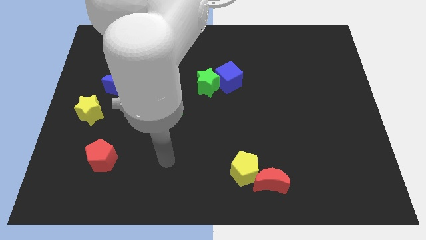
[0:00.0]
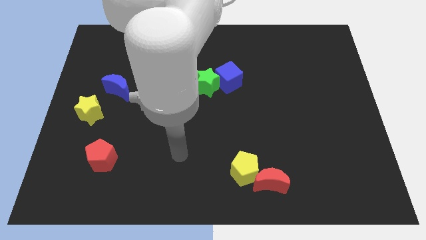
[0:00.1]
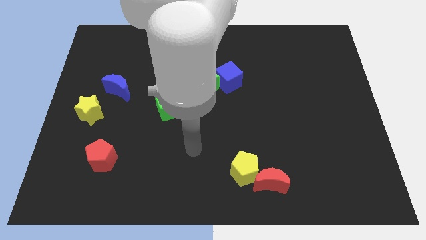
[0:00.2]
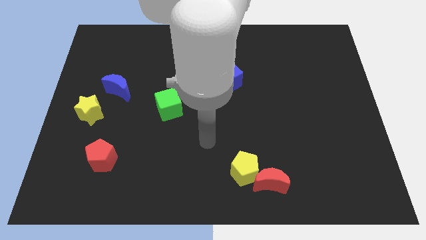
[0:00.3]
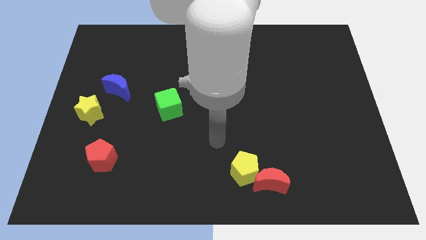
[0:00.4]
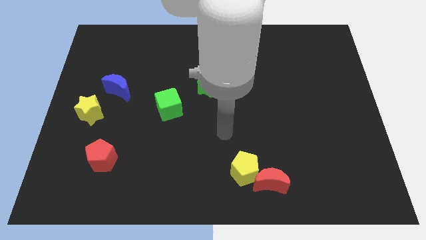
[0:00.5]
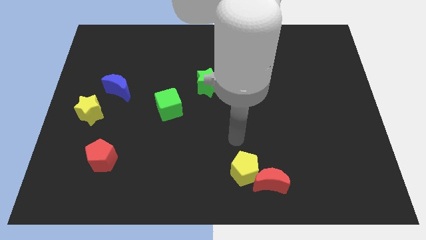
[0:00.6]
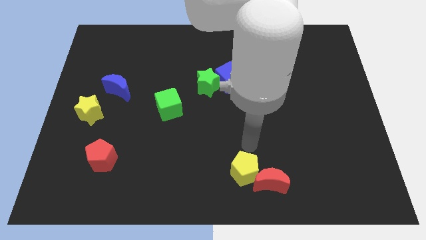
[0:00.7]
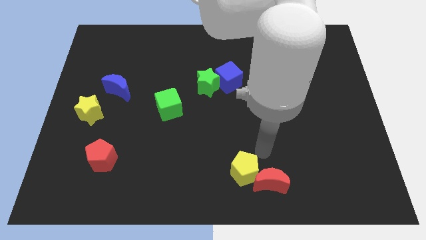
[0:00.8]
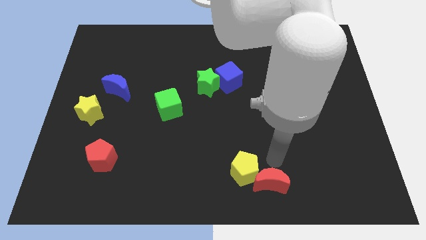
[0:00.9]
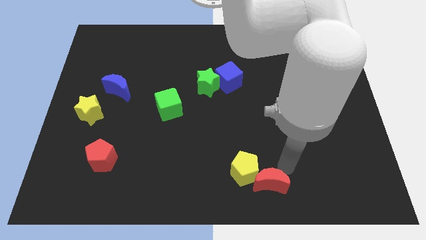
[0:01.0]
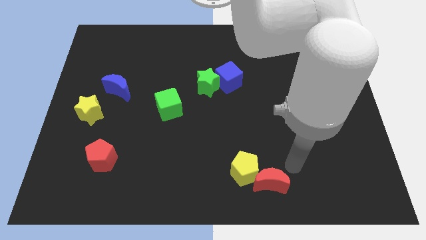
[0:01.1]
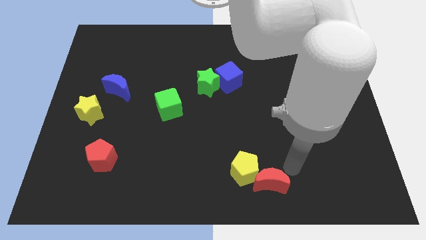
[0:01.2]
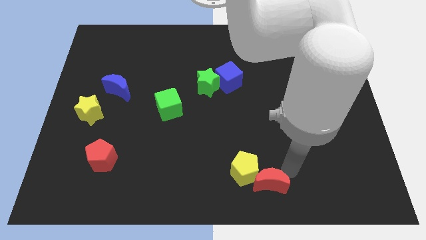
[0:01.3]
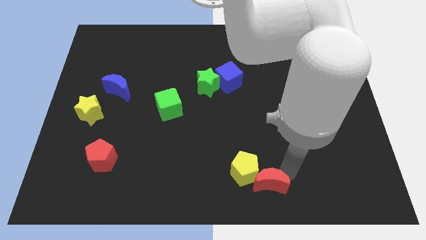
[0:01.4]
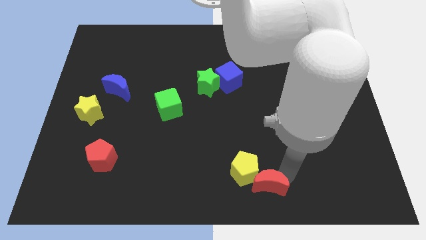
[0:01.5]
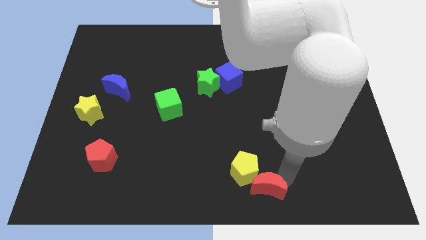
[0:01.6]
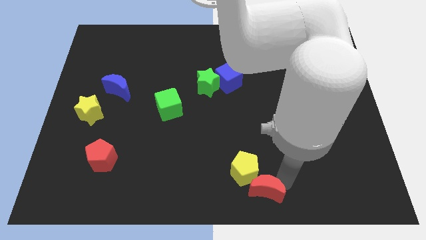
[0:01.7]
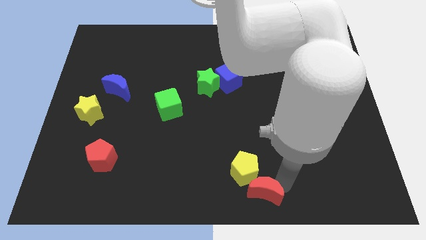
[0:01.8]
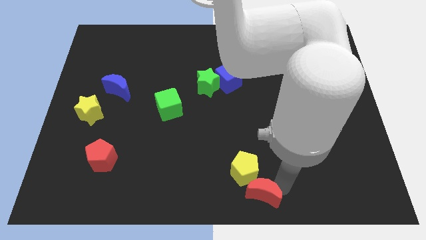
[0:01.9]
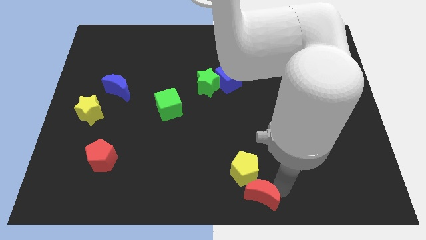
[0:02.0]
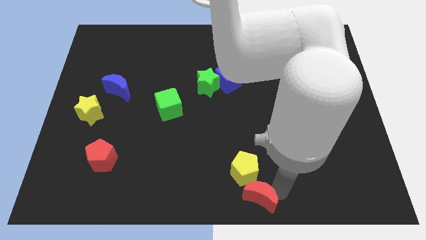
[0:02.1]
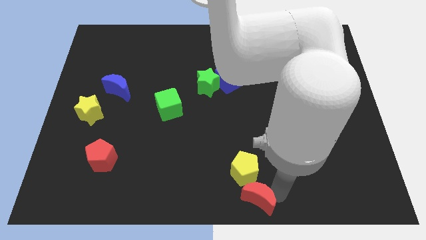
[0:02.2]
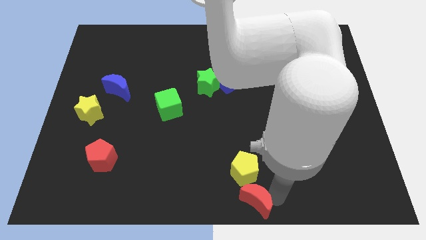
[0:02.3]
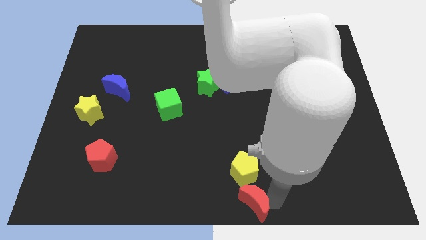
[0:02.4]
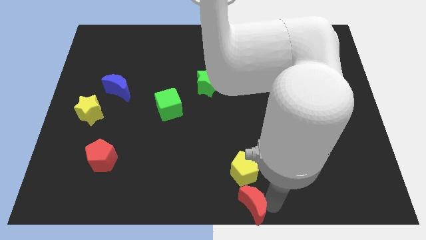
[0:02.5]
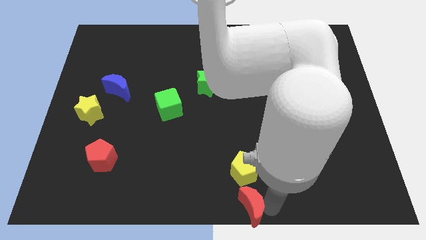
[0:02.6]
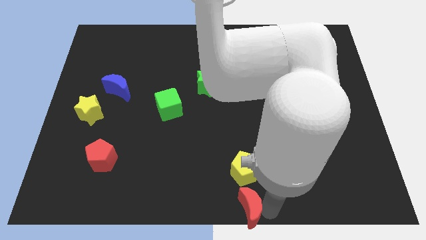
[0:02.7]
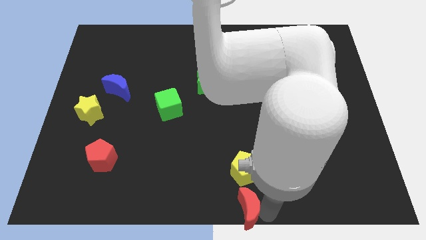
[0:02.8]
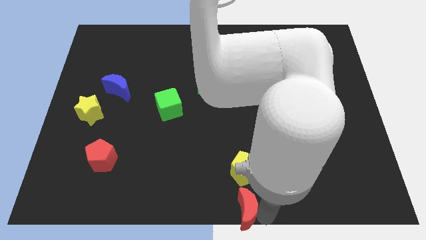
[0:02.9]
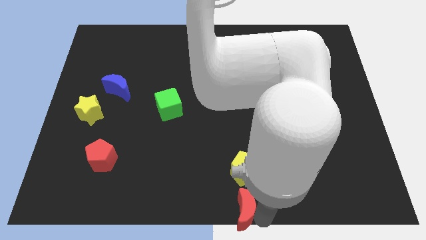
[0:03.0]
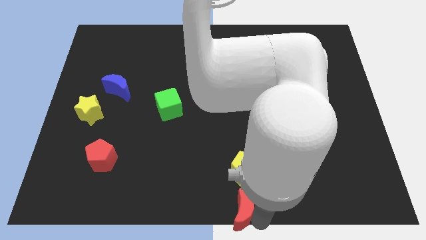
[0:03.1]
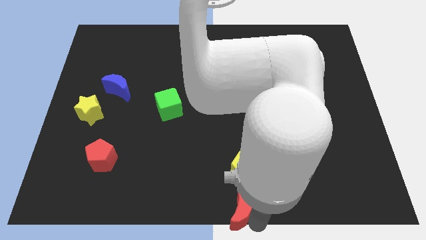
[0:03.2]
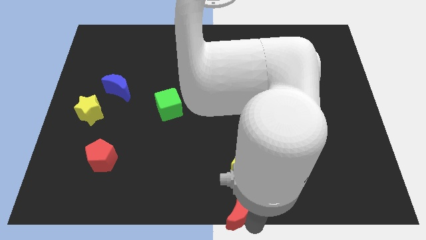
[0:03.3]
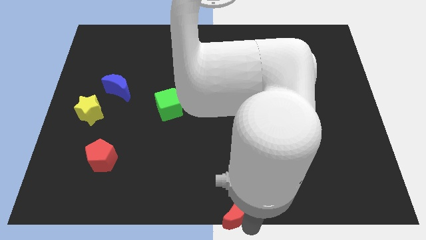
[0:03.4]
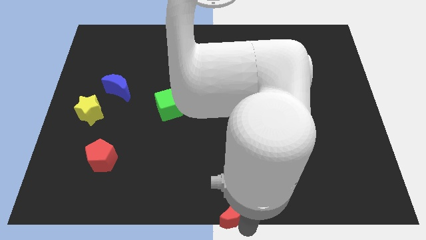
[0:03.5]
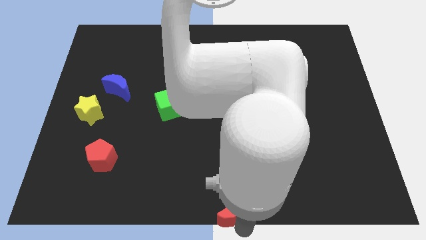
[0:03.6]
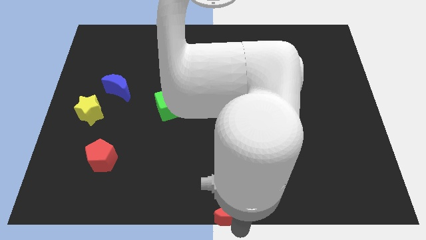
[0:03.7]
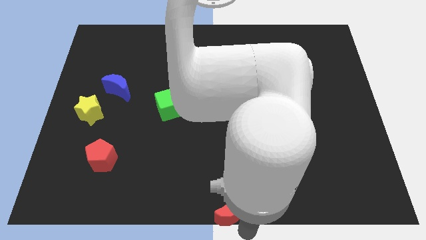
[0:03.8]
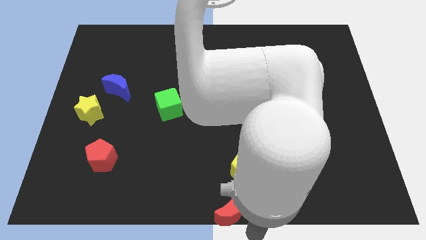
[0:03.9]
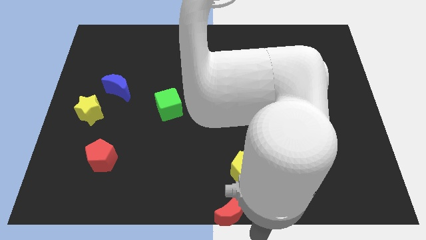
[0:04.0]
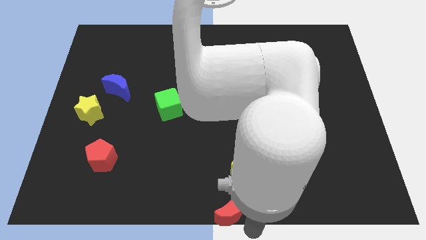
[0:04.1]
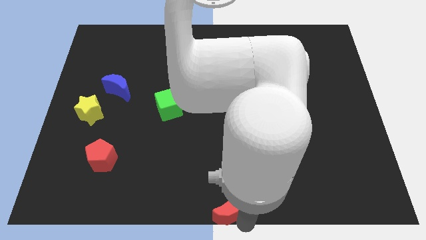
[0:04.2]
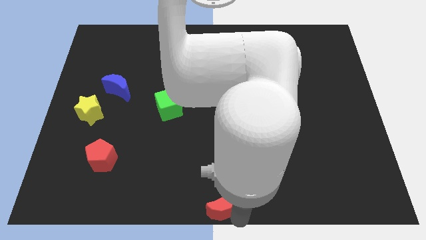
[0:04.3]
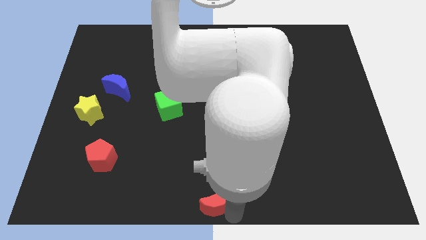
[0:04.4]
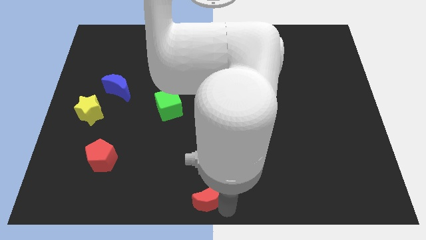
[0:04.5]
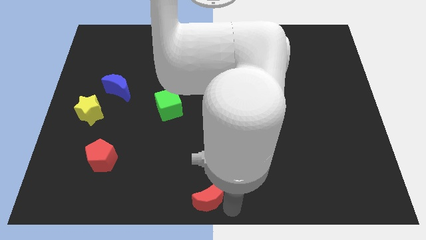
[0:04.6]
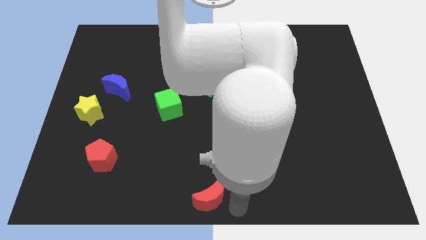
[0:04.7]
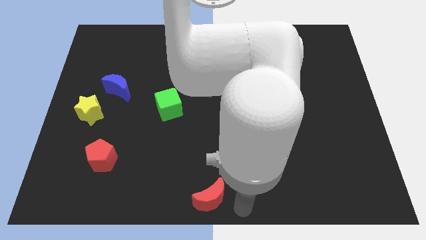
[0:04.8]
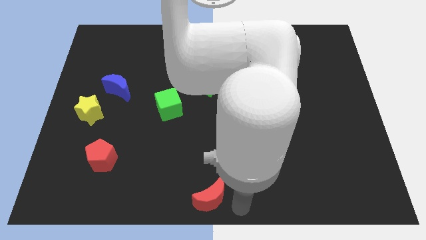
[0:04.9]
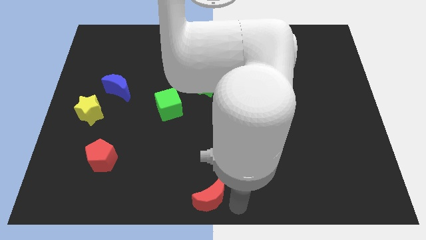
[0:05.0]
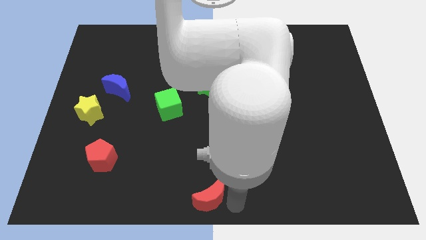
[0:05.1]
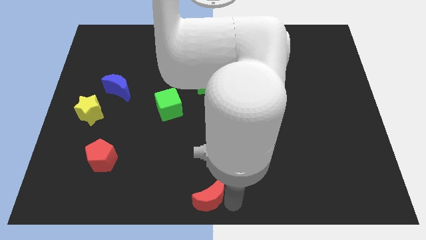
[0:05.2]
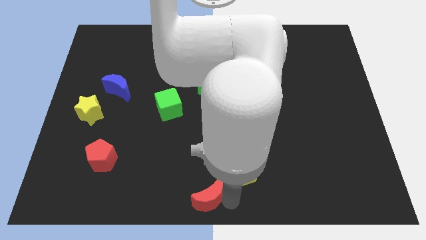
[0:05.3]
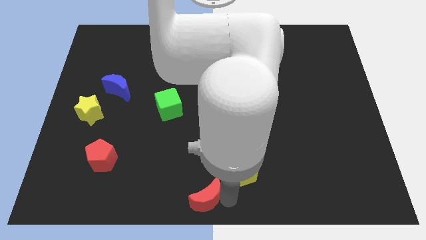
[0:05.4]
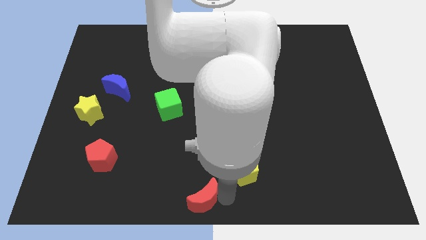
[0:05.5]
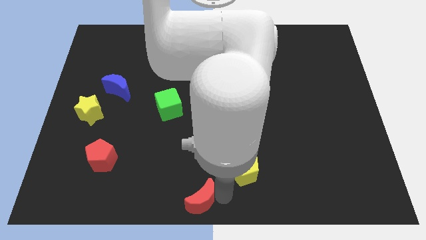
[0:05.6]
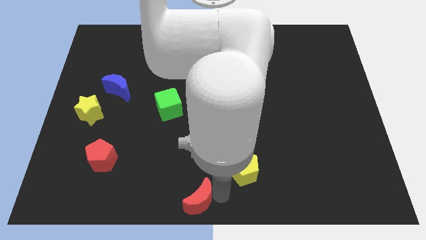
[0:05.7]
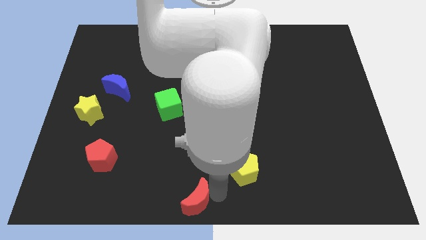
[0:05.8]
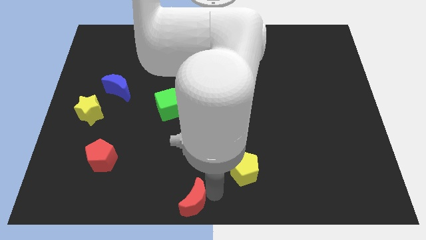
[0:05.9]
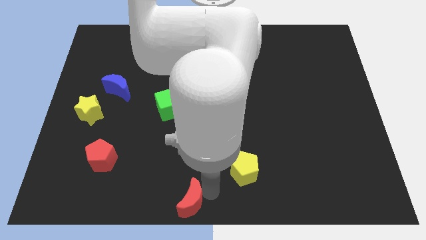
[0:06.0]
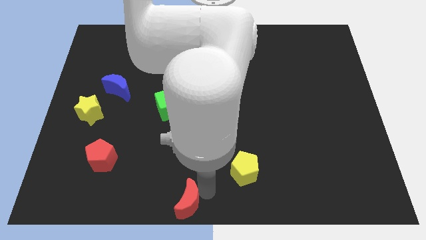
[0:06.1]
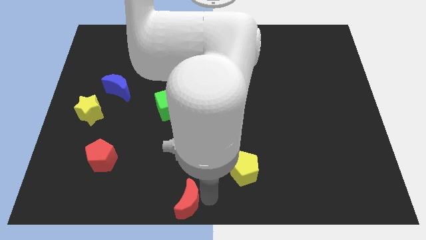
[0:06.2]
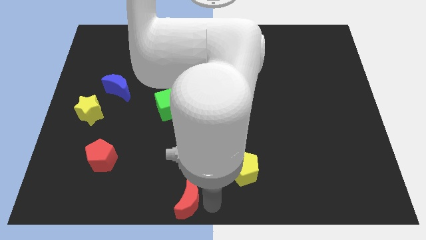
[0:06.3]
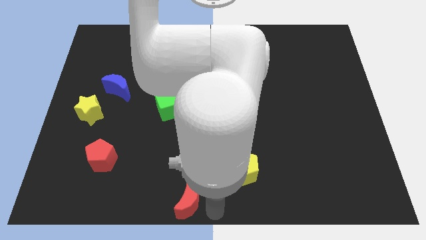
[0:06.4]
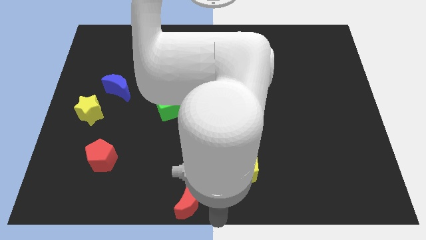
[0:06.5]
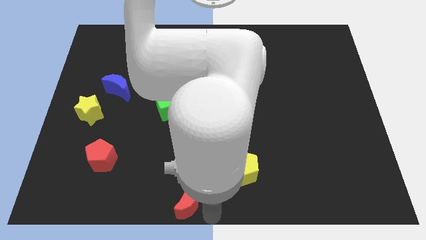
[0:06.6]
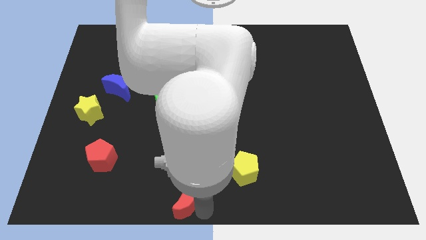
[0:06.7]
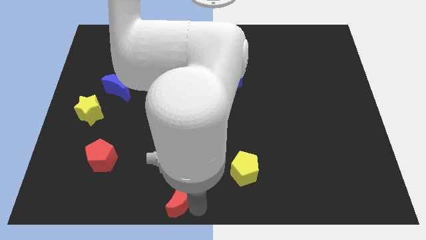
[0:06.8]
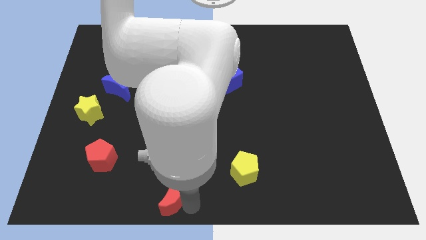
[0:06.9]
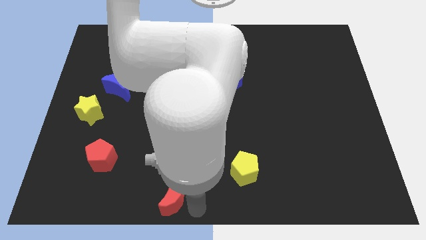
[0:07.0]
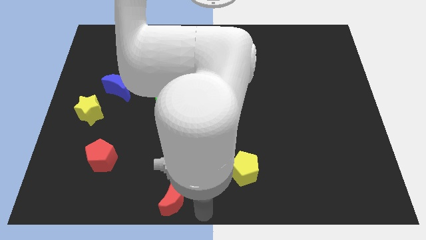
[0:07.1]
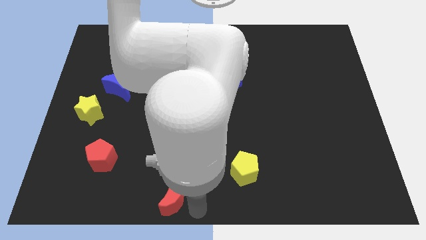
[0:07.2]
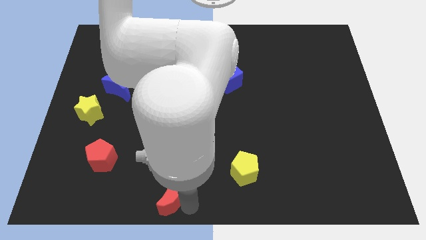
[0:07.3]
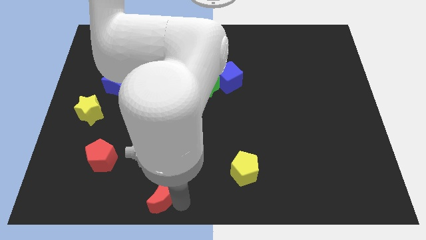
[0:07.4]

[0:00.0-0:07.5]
push the red moon to the left
